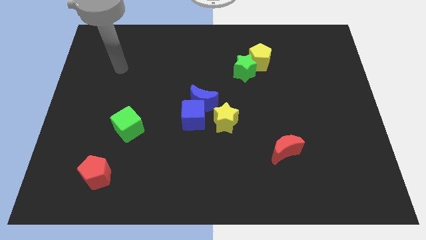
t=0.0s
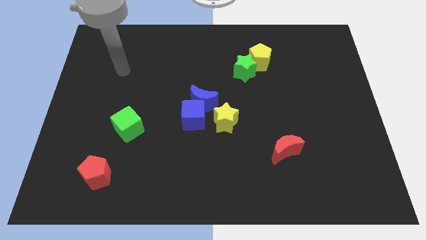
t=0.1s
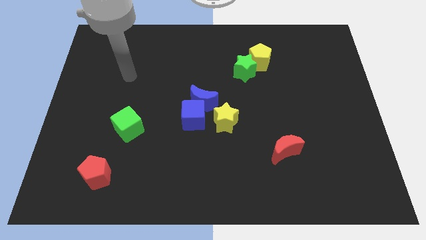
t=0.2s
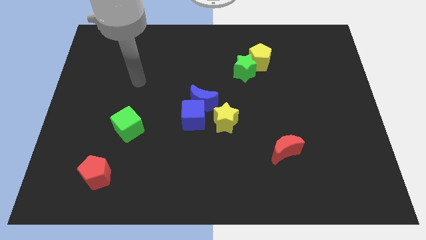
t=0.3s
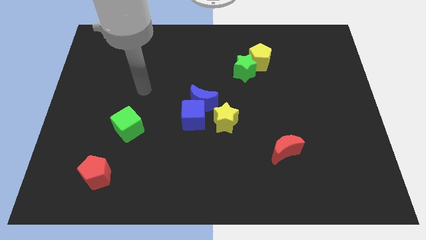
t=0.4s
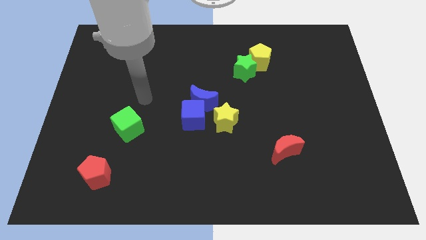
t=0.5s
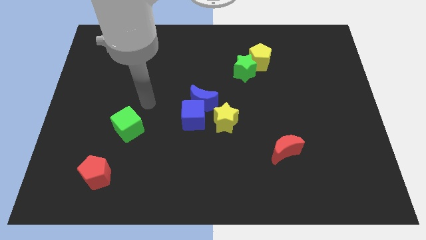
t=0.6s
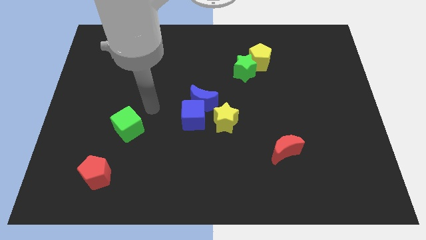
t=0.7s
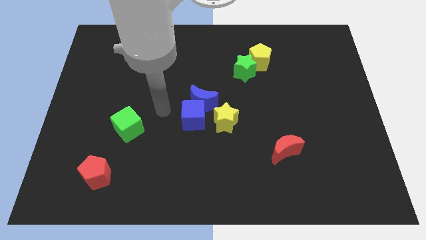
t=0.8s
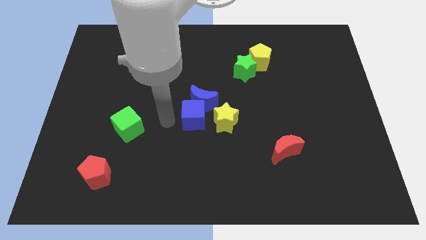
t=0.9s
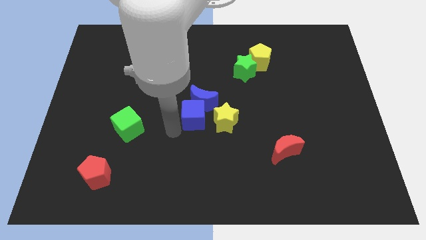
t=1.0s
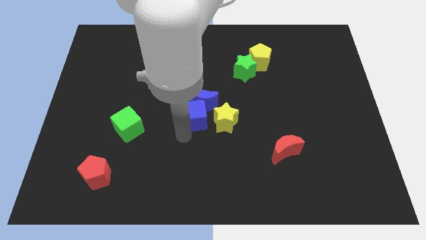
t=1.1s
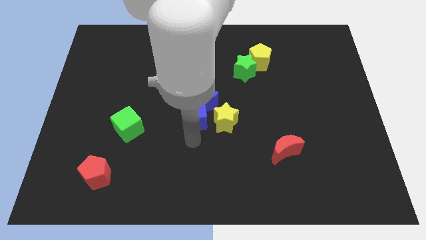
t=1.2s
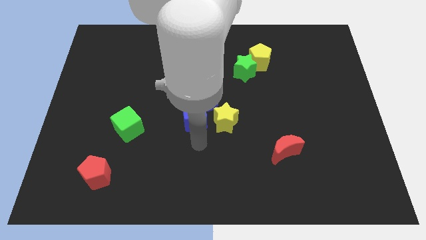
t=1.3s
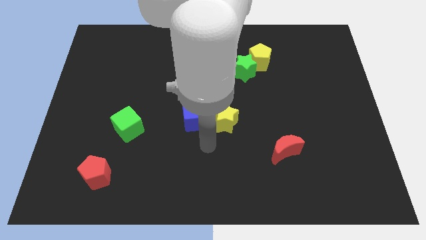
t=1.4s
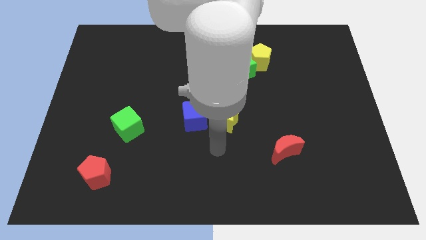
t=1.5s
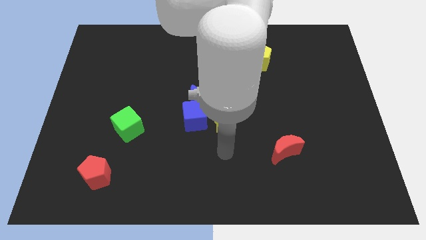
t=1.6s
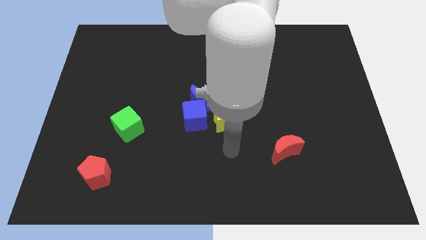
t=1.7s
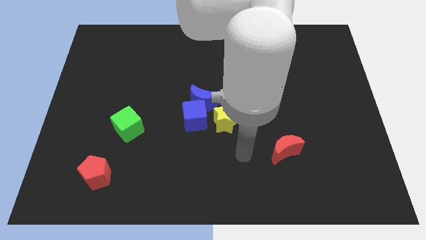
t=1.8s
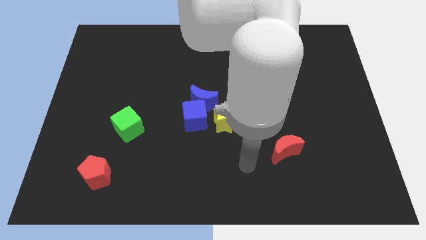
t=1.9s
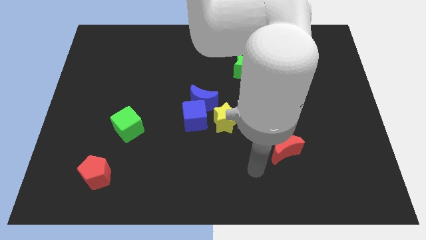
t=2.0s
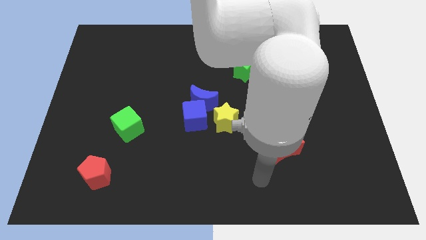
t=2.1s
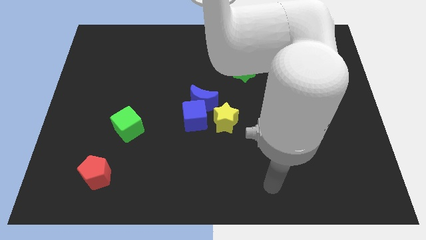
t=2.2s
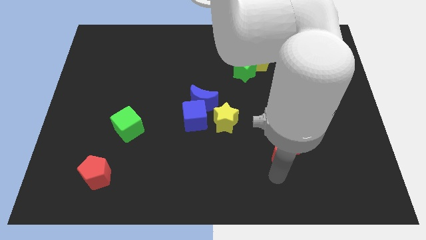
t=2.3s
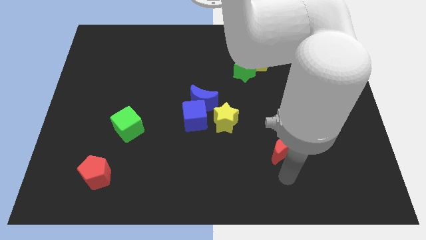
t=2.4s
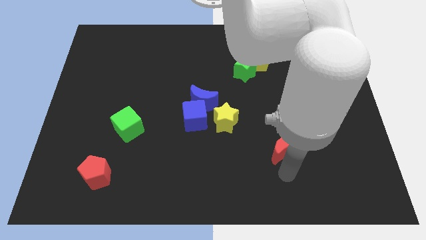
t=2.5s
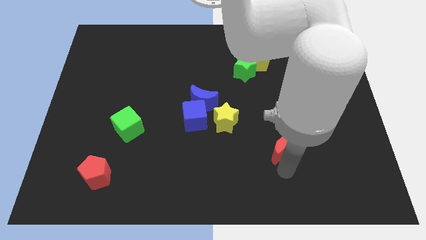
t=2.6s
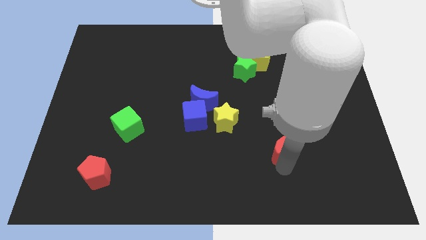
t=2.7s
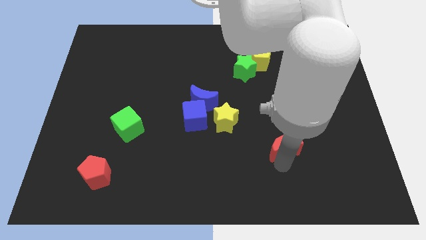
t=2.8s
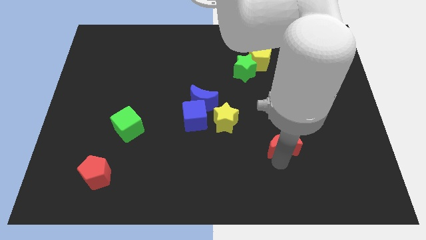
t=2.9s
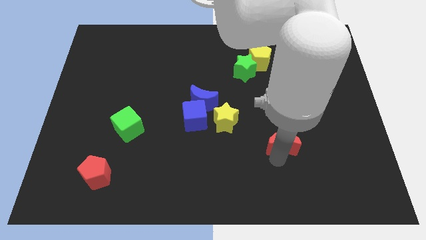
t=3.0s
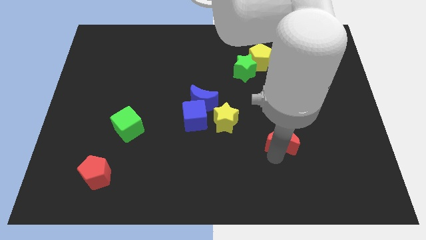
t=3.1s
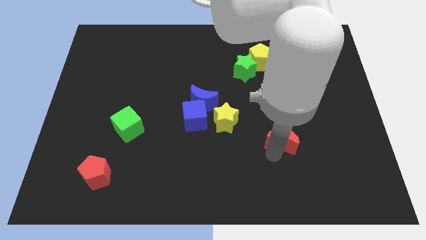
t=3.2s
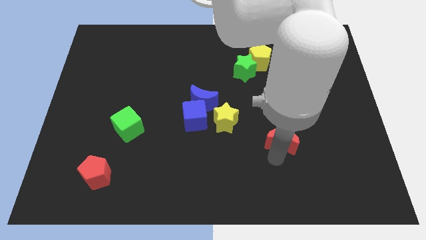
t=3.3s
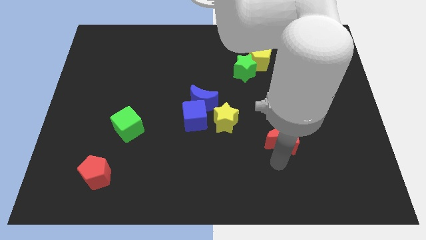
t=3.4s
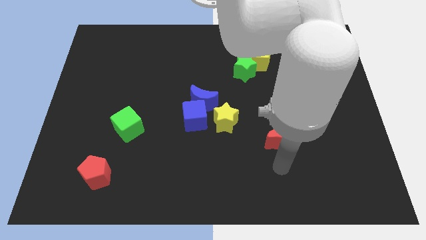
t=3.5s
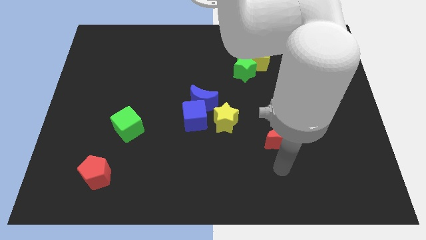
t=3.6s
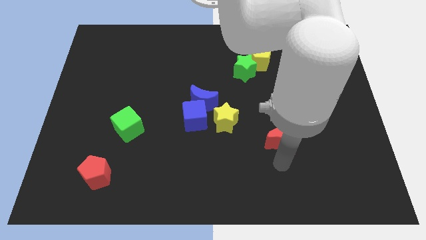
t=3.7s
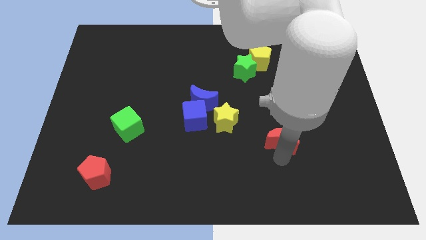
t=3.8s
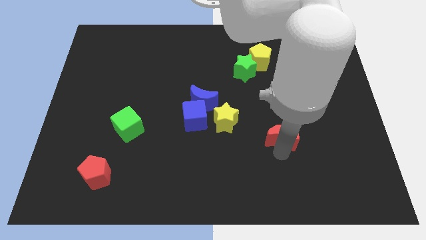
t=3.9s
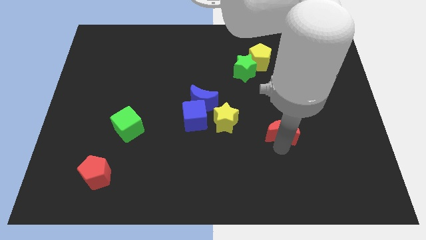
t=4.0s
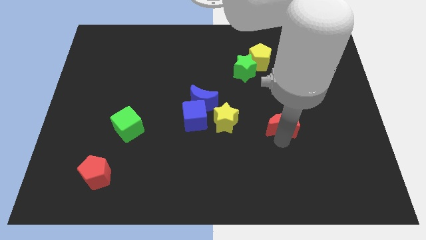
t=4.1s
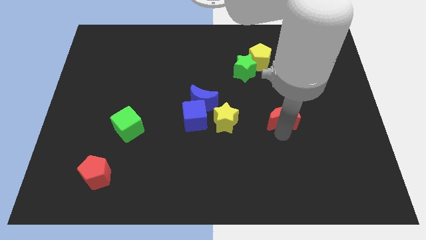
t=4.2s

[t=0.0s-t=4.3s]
slide the red moon upwards a bit

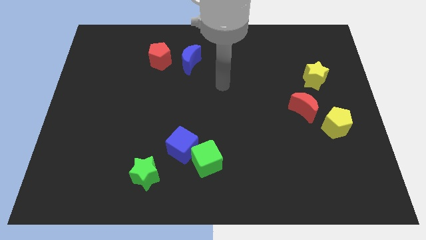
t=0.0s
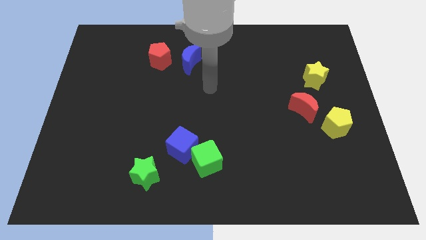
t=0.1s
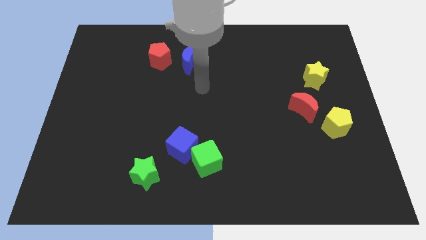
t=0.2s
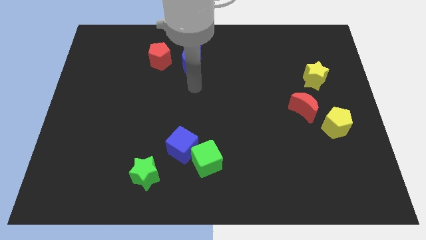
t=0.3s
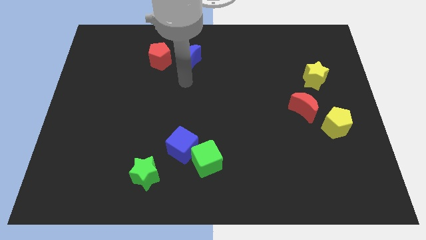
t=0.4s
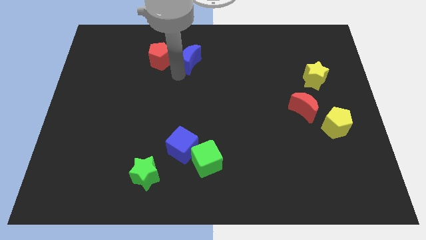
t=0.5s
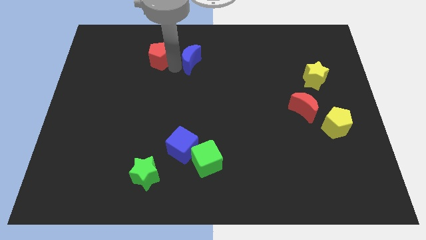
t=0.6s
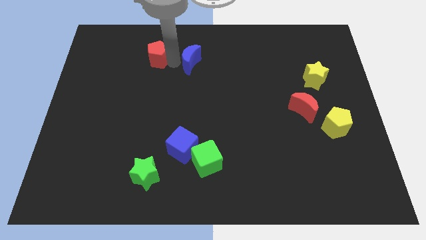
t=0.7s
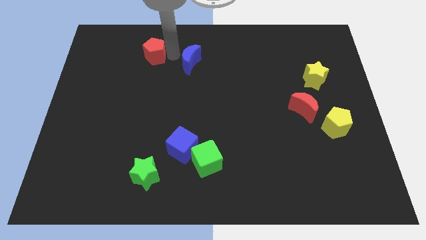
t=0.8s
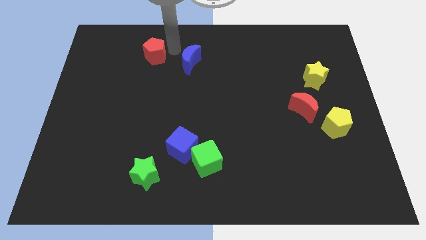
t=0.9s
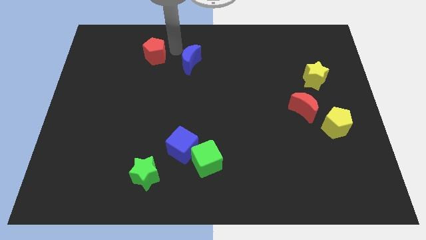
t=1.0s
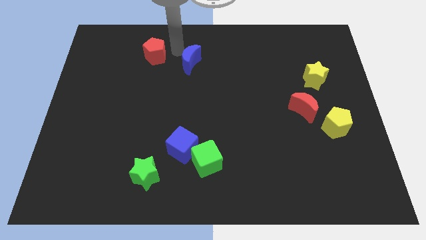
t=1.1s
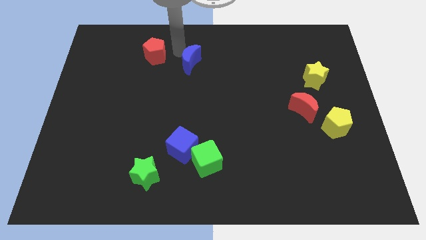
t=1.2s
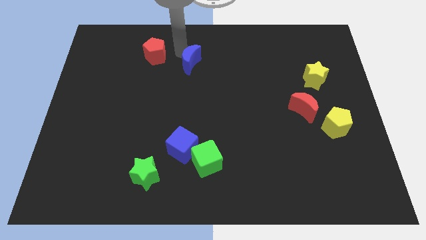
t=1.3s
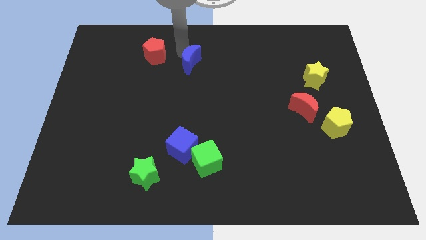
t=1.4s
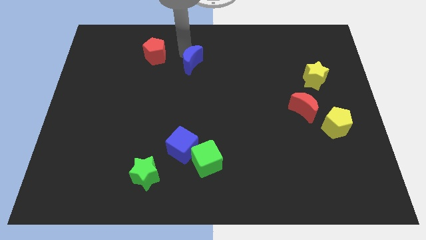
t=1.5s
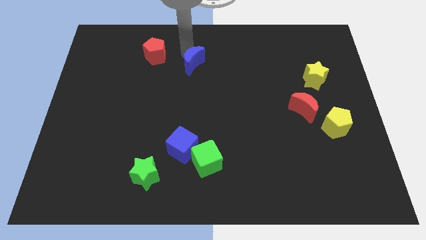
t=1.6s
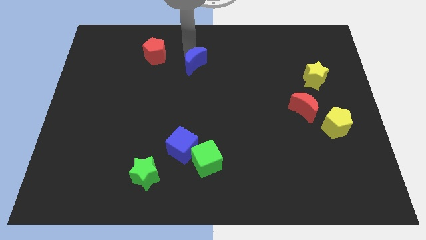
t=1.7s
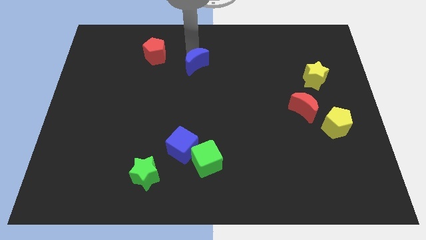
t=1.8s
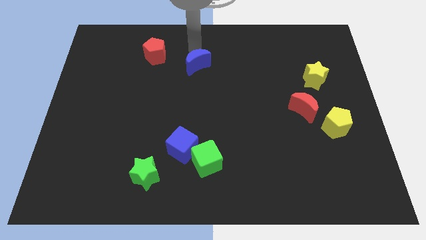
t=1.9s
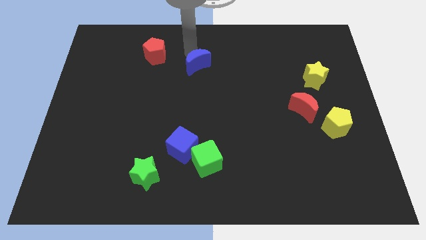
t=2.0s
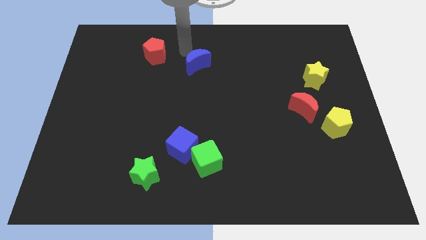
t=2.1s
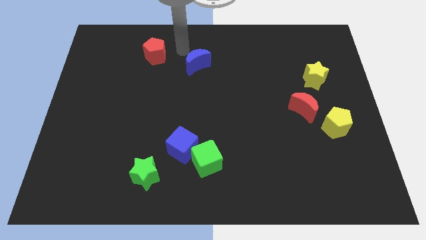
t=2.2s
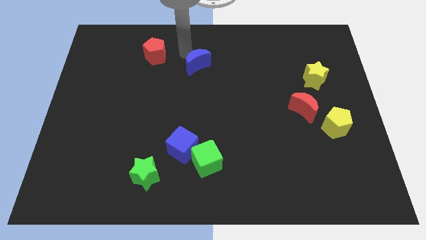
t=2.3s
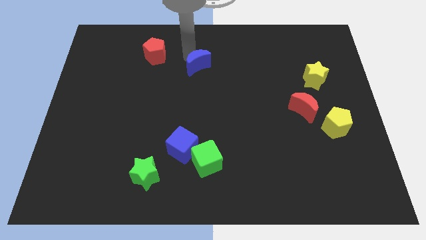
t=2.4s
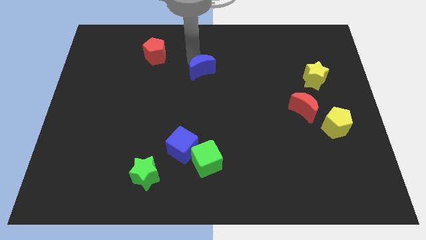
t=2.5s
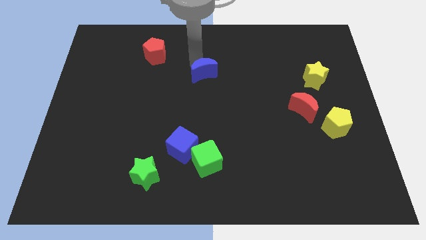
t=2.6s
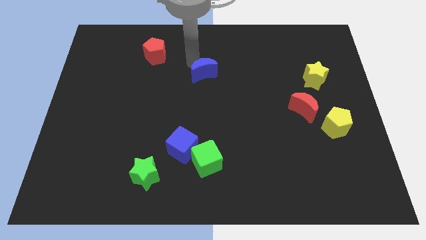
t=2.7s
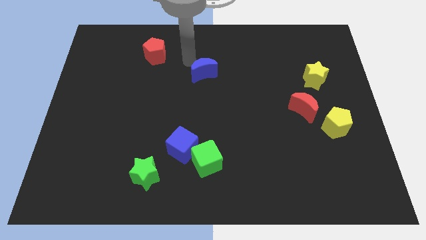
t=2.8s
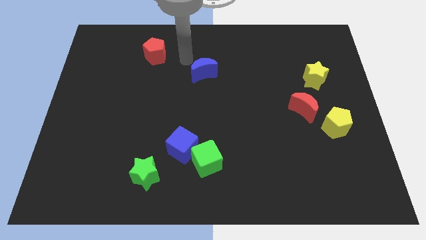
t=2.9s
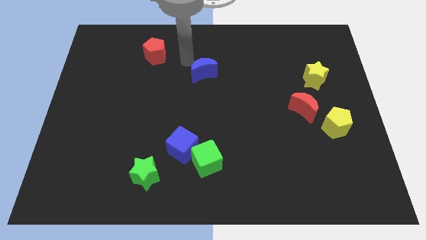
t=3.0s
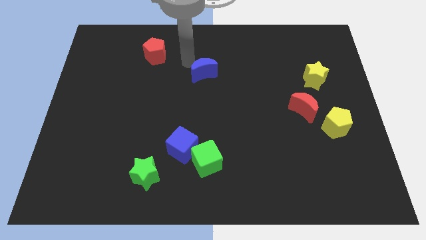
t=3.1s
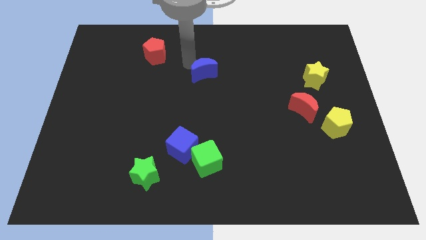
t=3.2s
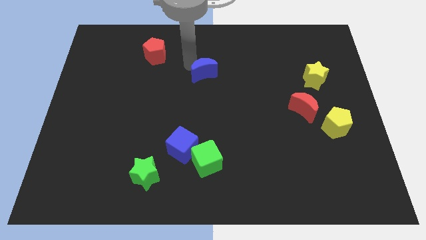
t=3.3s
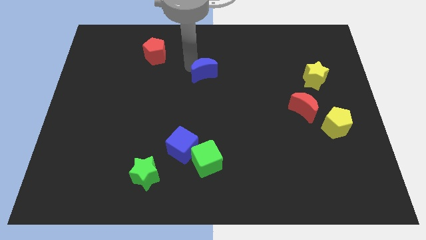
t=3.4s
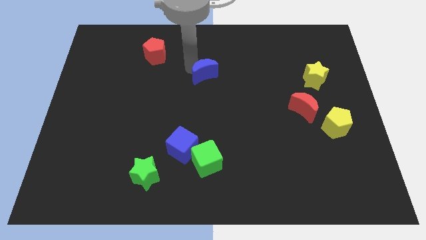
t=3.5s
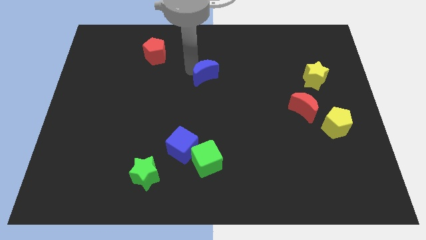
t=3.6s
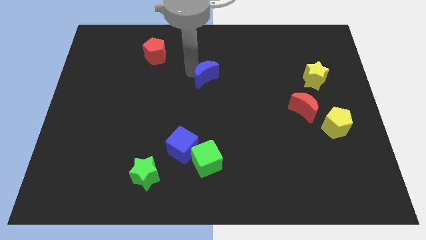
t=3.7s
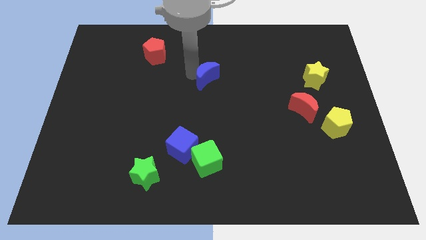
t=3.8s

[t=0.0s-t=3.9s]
slightly slide the blue moon downwards and right
